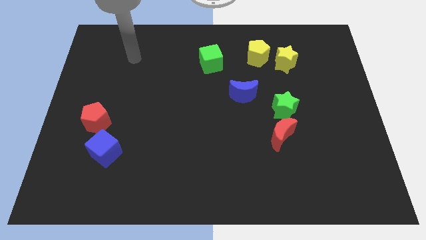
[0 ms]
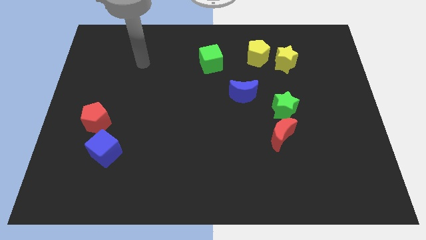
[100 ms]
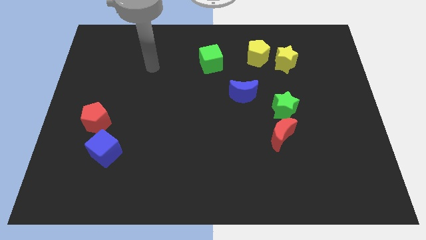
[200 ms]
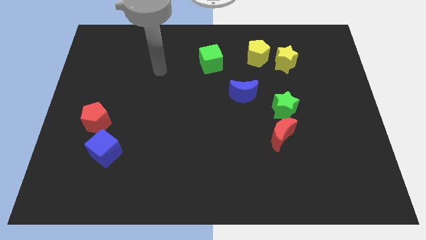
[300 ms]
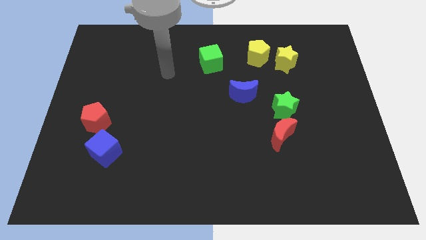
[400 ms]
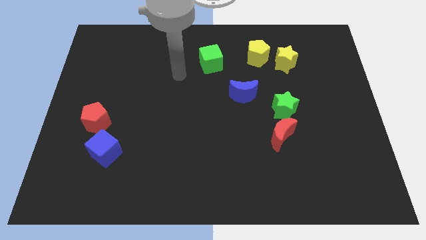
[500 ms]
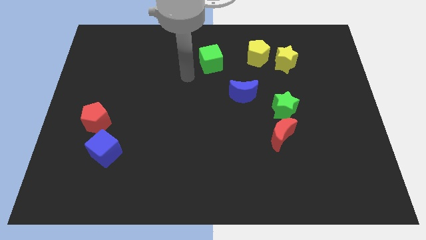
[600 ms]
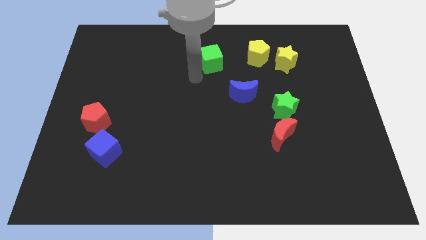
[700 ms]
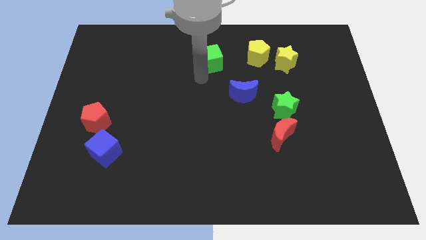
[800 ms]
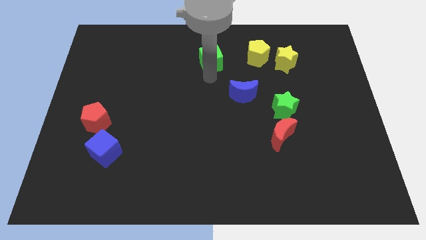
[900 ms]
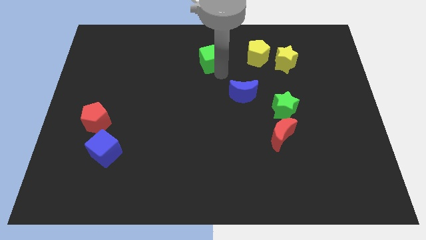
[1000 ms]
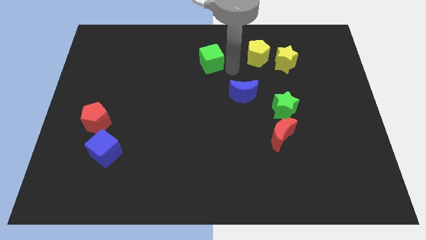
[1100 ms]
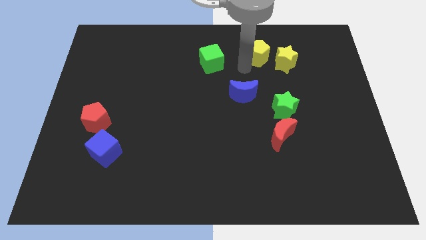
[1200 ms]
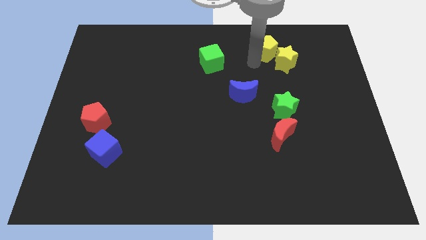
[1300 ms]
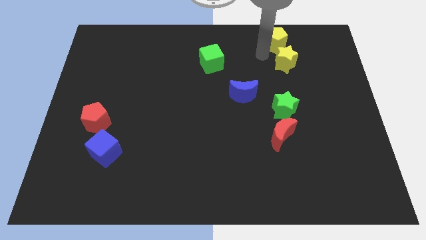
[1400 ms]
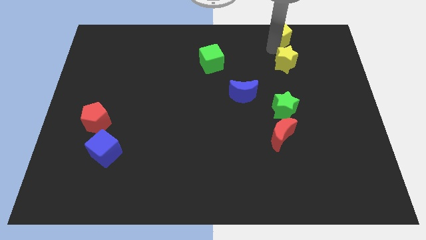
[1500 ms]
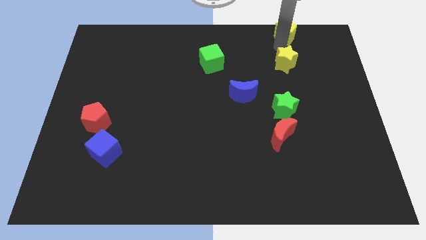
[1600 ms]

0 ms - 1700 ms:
move the yellow star away from the yellow pentagon

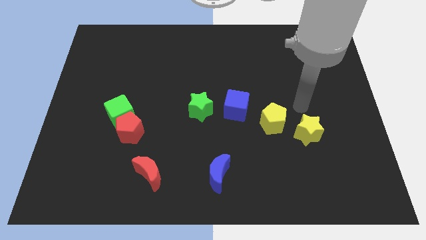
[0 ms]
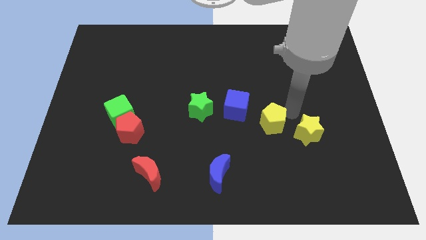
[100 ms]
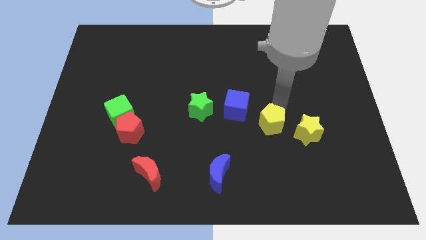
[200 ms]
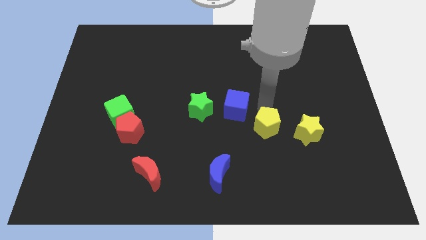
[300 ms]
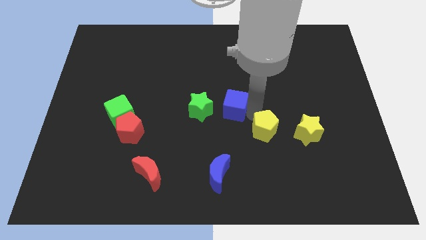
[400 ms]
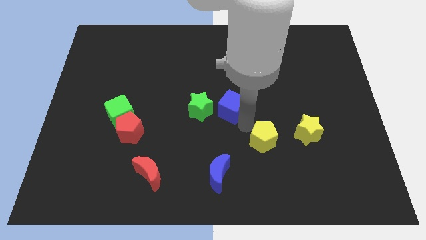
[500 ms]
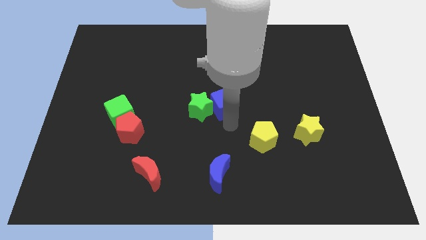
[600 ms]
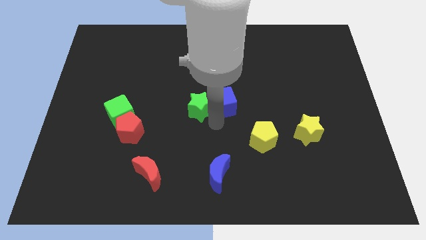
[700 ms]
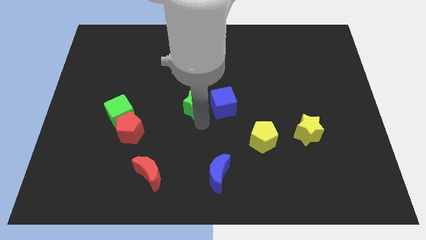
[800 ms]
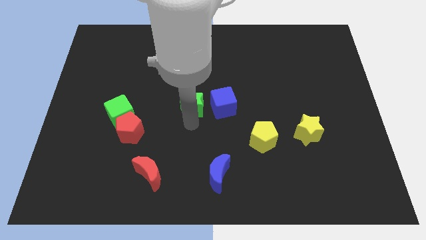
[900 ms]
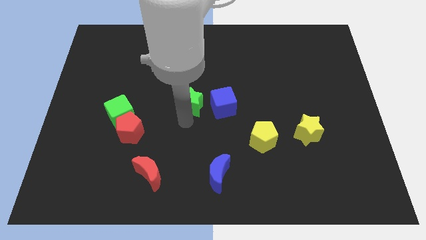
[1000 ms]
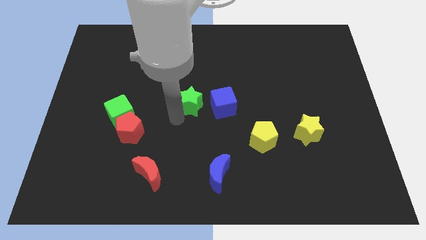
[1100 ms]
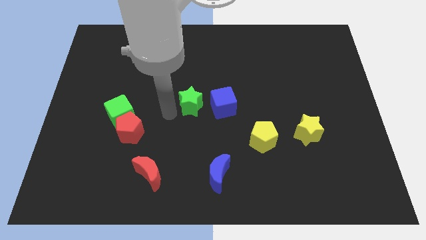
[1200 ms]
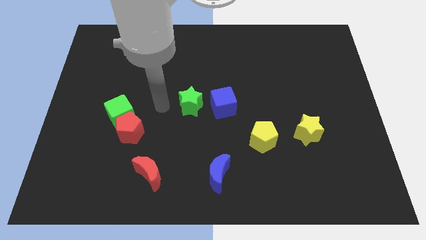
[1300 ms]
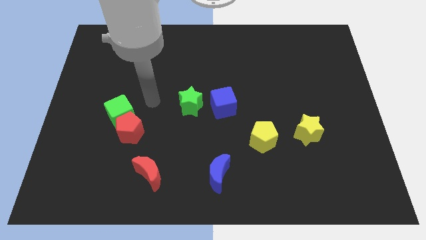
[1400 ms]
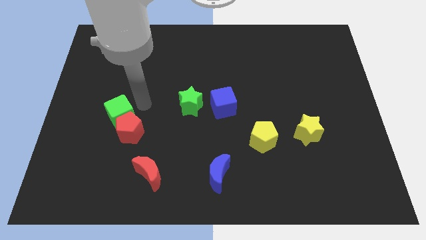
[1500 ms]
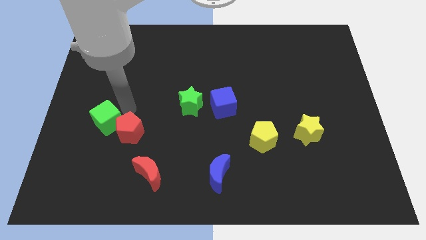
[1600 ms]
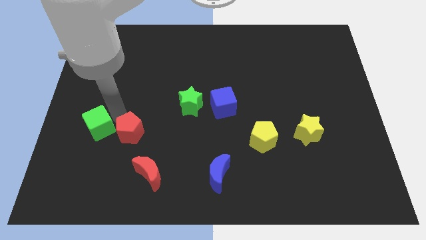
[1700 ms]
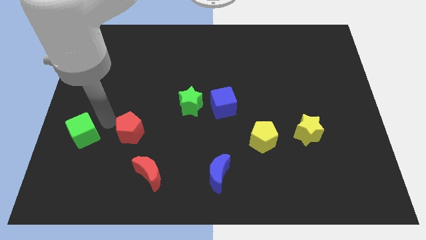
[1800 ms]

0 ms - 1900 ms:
separate the red pentagon from the green cube

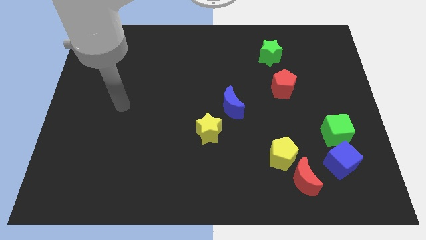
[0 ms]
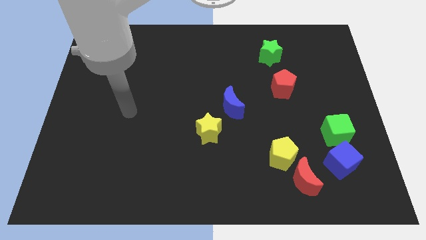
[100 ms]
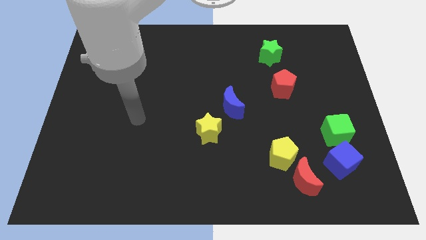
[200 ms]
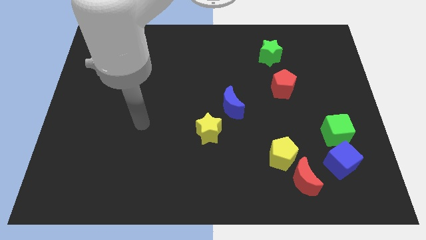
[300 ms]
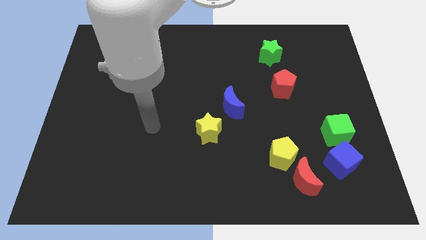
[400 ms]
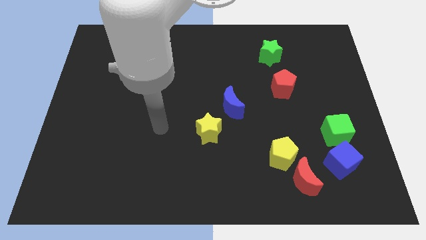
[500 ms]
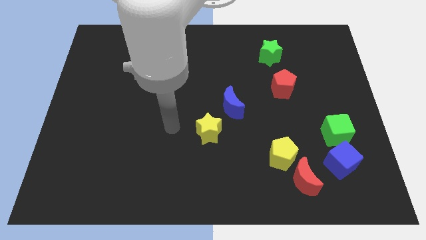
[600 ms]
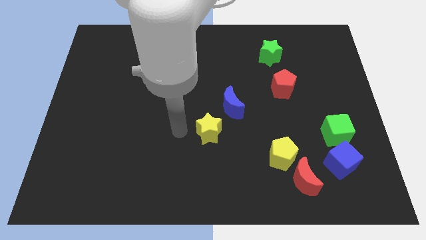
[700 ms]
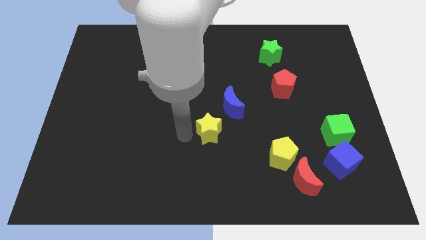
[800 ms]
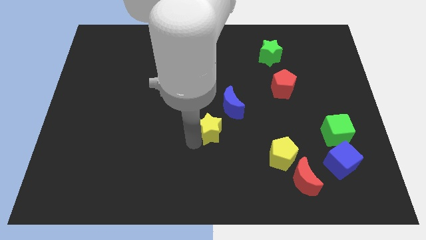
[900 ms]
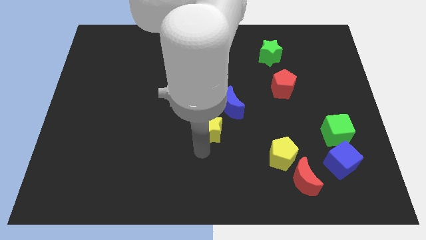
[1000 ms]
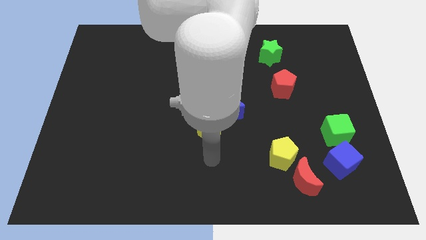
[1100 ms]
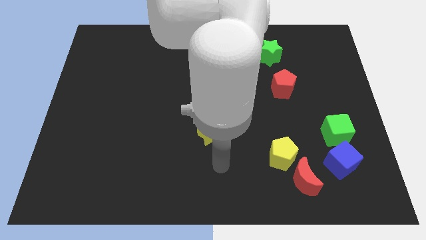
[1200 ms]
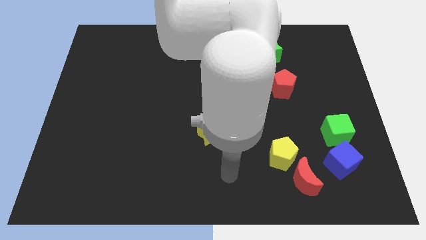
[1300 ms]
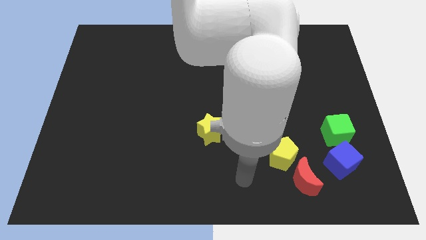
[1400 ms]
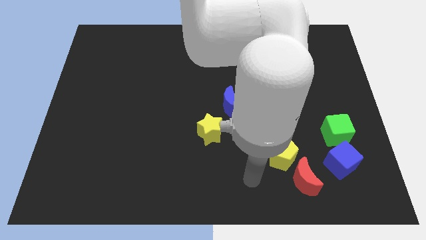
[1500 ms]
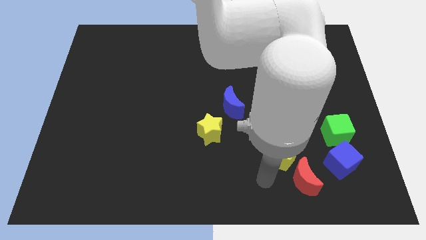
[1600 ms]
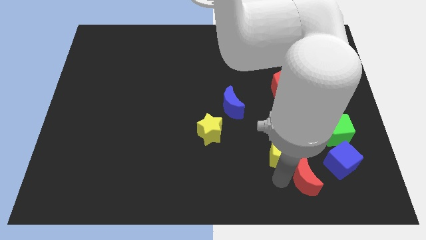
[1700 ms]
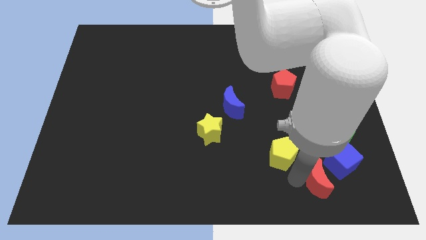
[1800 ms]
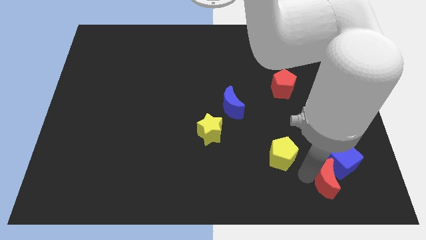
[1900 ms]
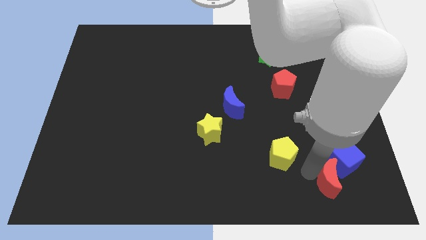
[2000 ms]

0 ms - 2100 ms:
pull the yellow pentagon apart from the red moon

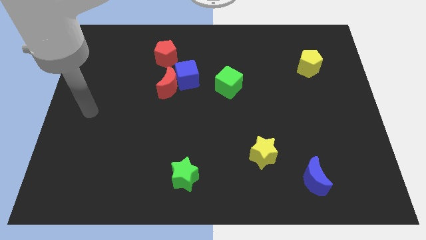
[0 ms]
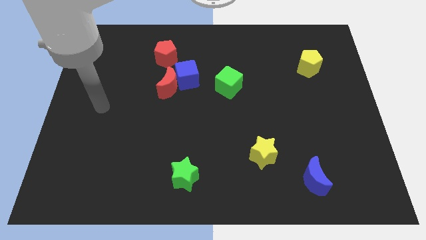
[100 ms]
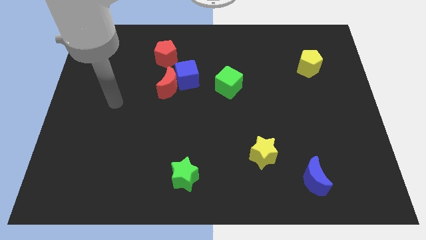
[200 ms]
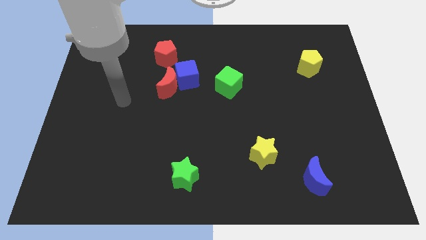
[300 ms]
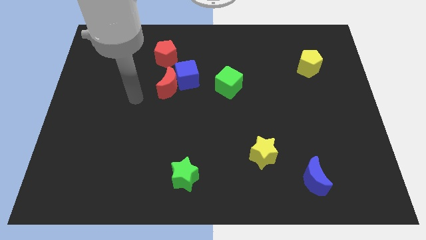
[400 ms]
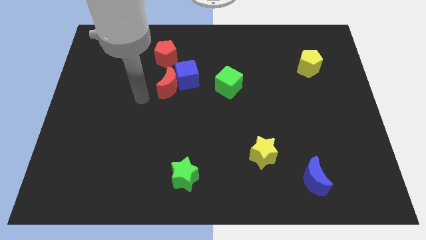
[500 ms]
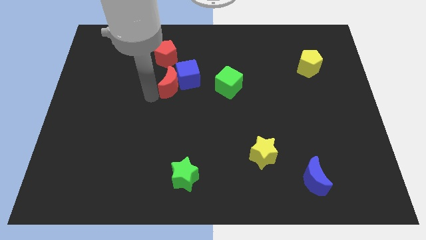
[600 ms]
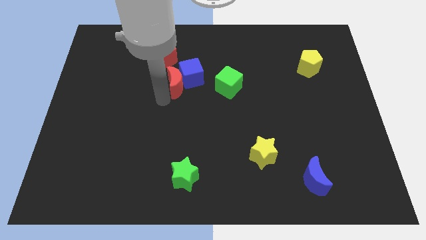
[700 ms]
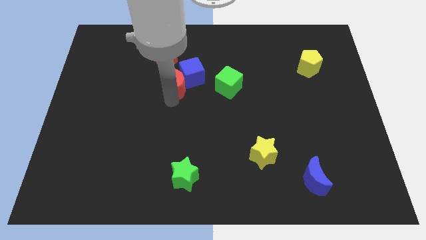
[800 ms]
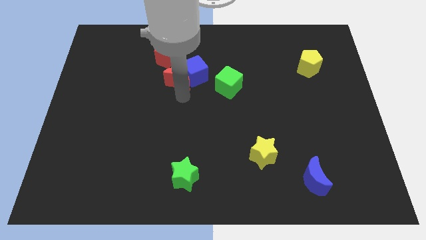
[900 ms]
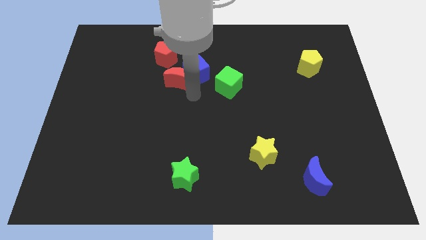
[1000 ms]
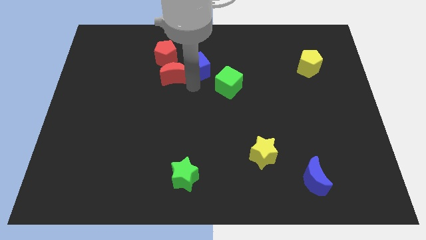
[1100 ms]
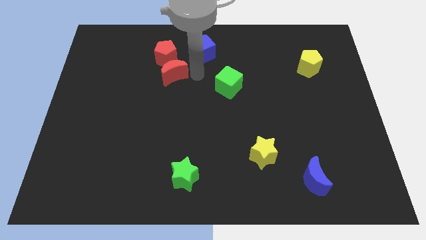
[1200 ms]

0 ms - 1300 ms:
move the red moon away from the blue cube

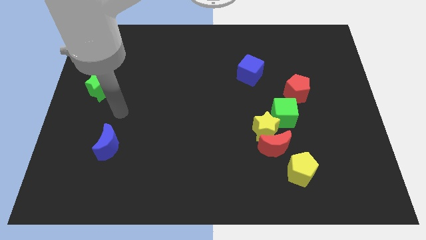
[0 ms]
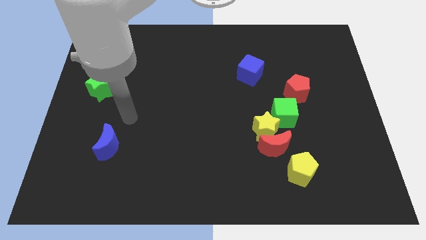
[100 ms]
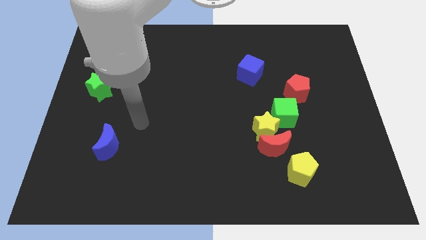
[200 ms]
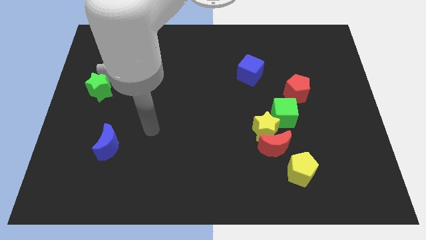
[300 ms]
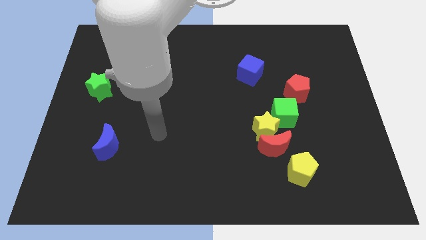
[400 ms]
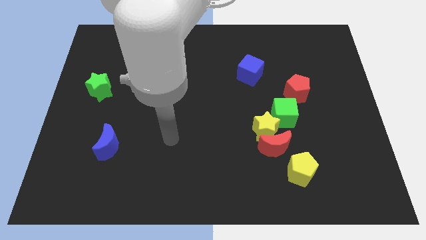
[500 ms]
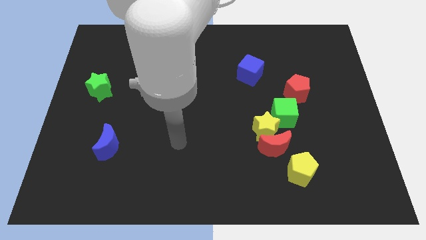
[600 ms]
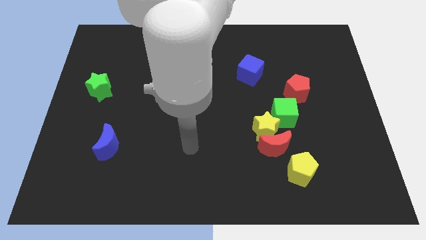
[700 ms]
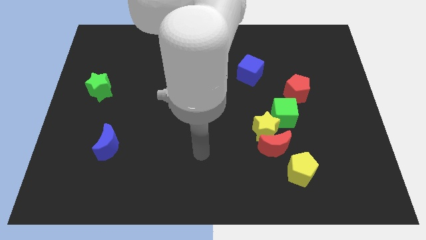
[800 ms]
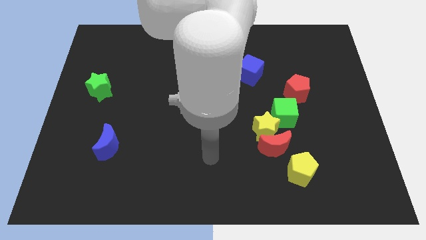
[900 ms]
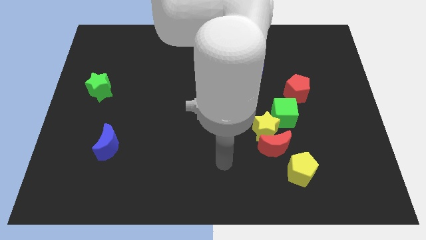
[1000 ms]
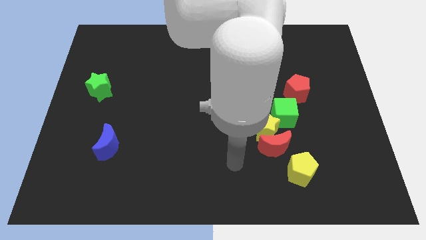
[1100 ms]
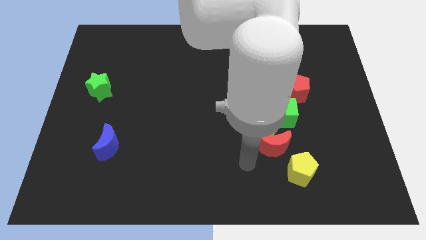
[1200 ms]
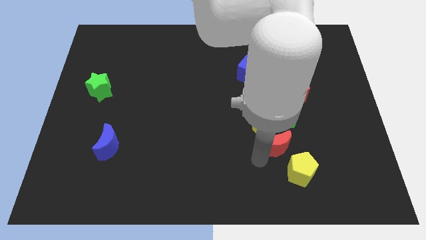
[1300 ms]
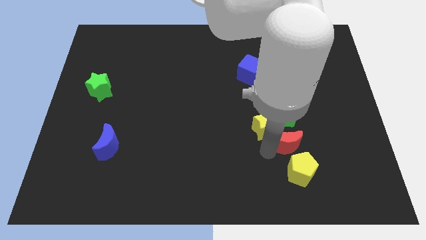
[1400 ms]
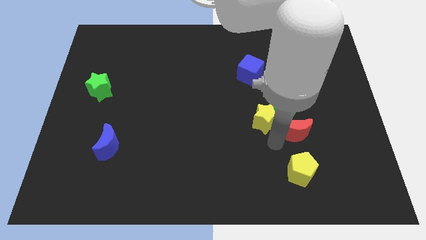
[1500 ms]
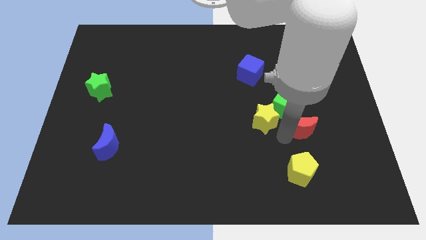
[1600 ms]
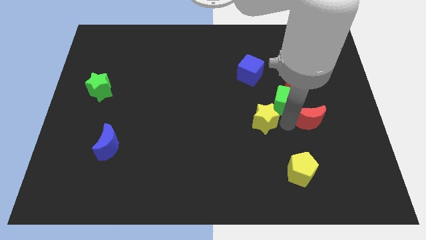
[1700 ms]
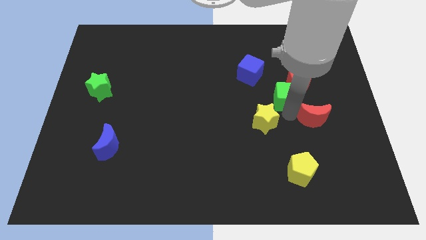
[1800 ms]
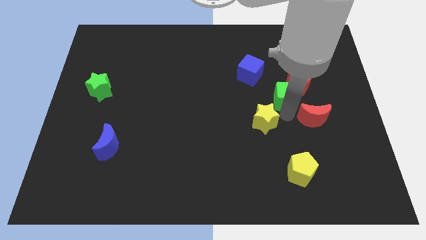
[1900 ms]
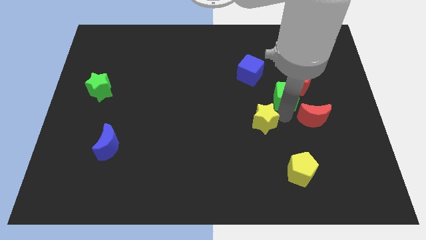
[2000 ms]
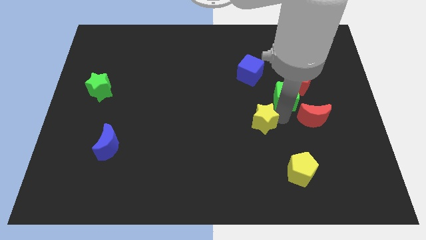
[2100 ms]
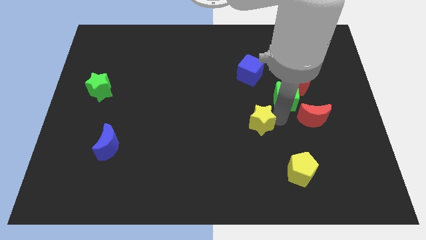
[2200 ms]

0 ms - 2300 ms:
pull the yellow star apart from the red moon and green cube

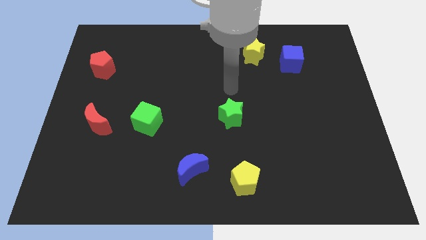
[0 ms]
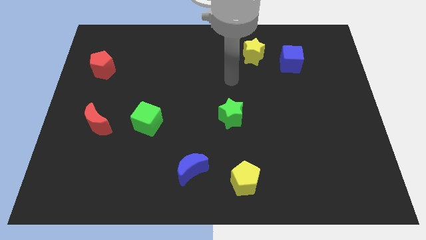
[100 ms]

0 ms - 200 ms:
move the blue cube away from the yellow star

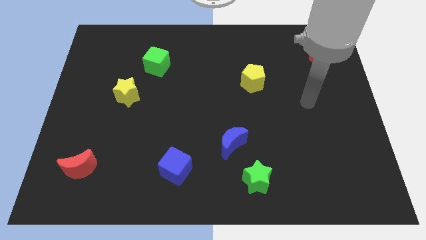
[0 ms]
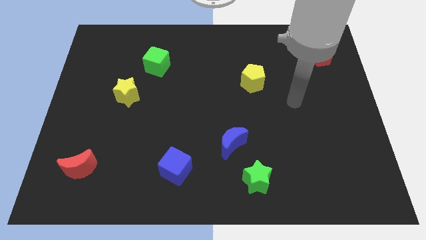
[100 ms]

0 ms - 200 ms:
pull the blue moon apart from the green star
